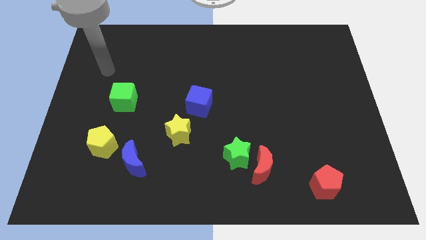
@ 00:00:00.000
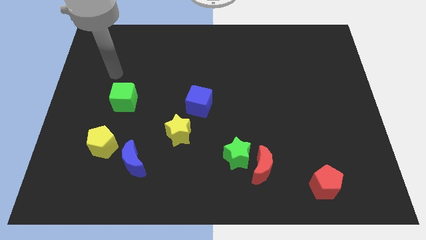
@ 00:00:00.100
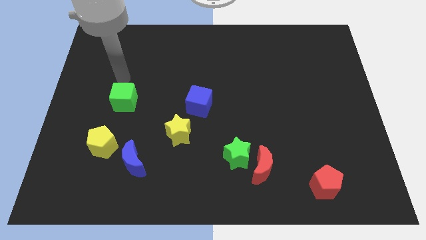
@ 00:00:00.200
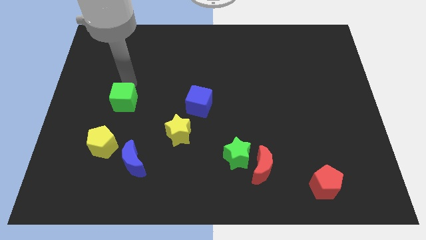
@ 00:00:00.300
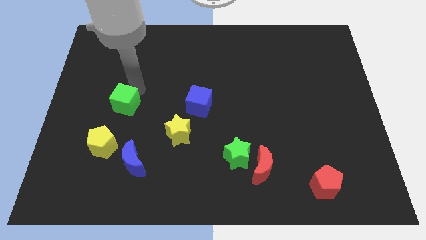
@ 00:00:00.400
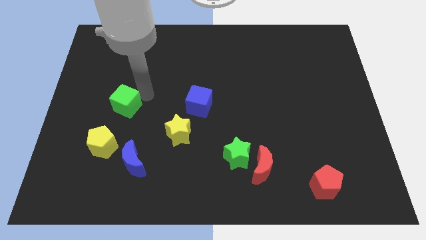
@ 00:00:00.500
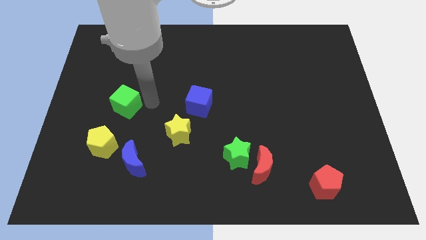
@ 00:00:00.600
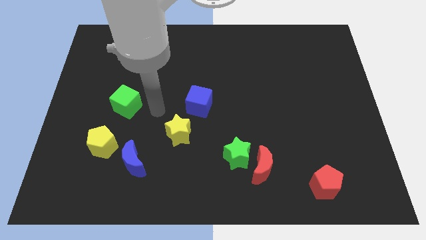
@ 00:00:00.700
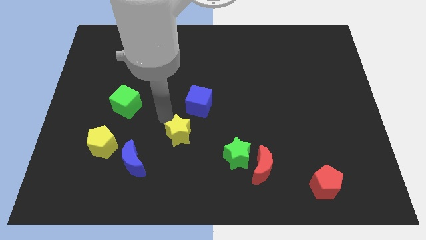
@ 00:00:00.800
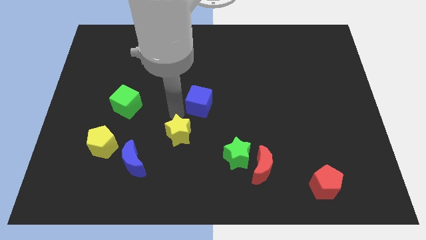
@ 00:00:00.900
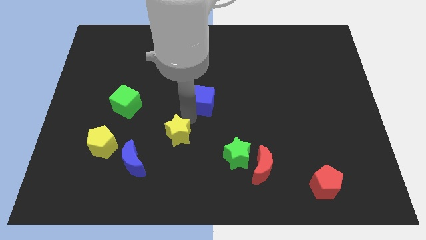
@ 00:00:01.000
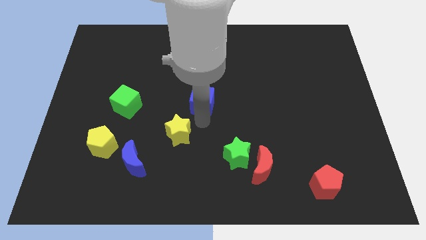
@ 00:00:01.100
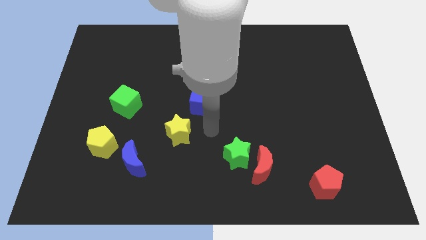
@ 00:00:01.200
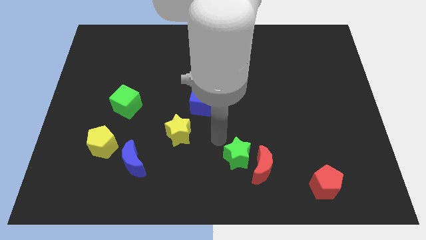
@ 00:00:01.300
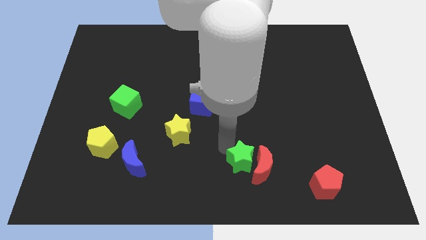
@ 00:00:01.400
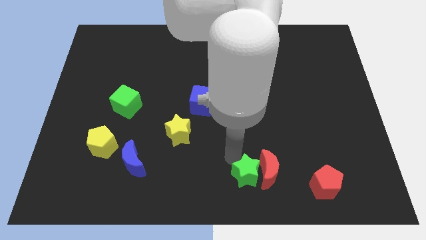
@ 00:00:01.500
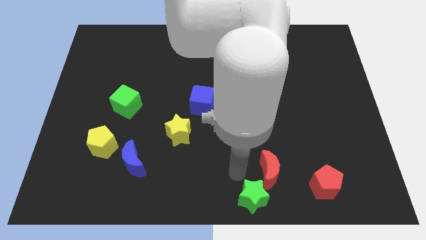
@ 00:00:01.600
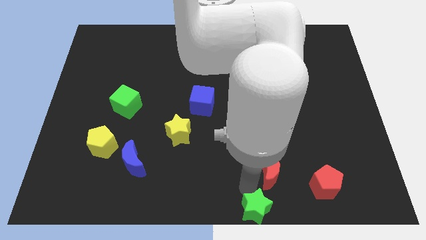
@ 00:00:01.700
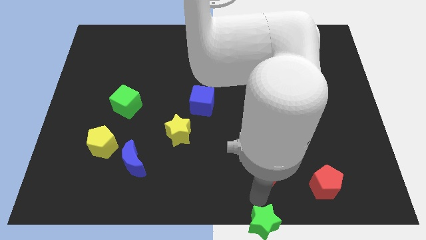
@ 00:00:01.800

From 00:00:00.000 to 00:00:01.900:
move the red moon away from the green star

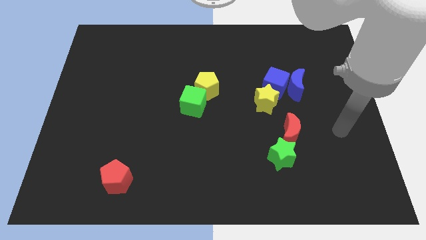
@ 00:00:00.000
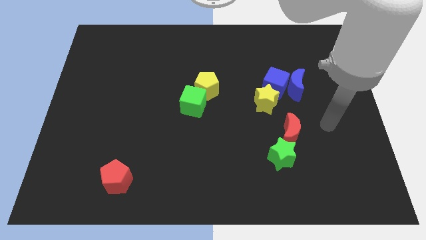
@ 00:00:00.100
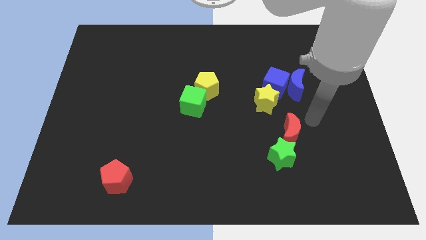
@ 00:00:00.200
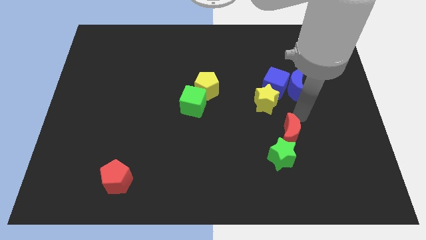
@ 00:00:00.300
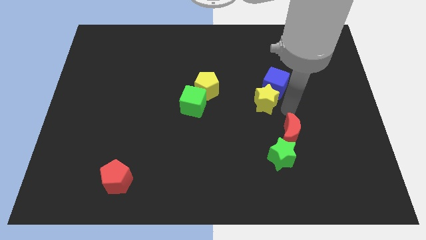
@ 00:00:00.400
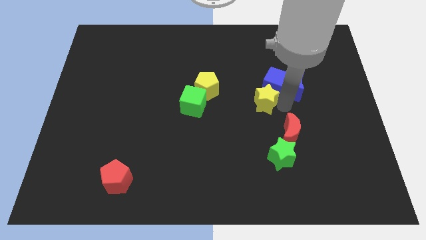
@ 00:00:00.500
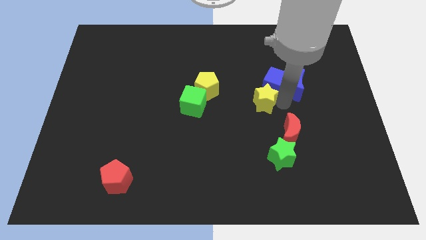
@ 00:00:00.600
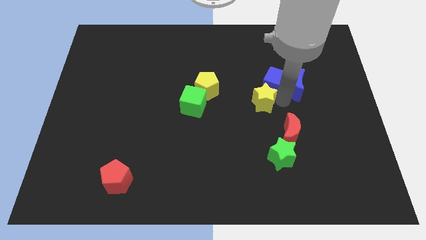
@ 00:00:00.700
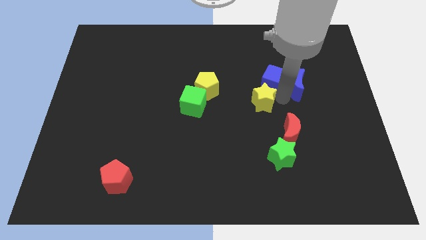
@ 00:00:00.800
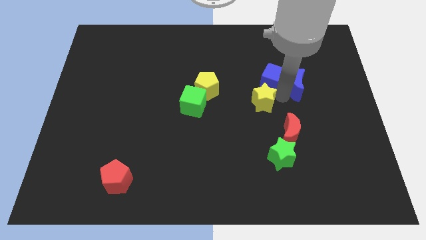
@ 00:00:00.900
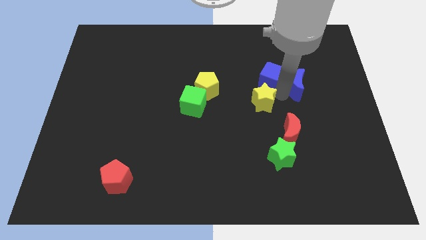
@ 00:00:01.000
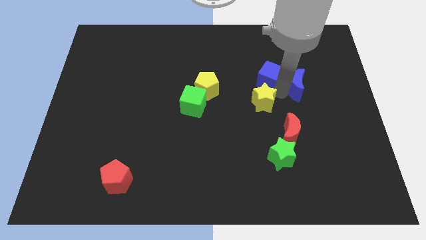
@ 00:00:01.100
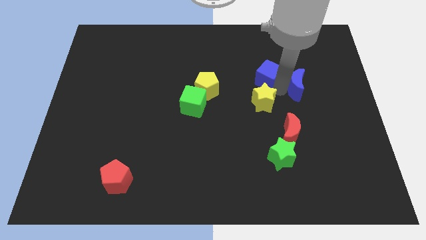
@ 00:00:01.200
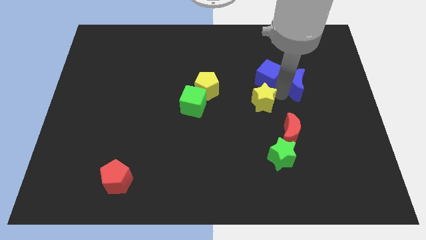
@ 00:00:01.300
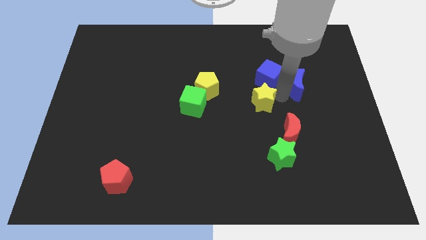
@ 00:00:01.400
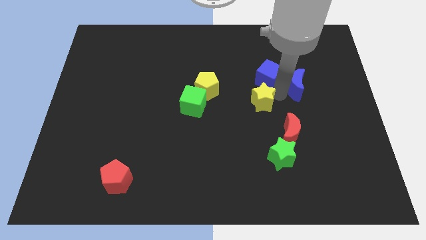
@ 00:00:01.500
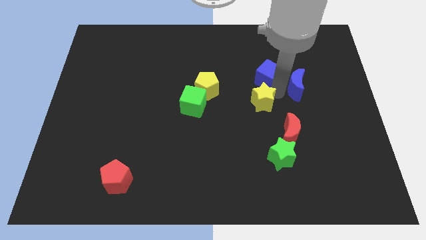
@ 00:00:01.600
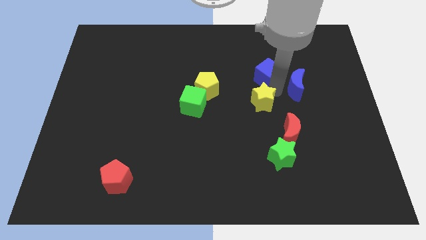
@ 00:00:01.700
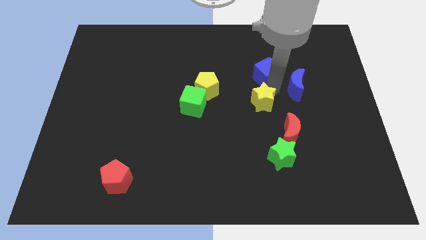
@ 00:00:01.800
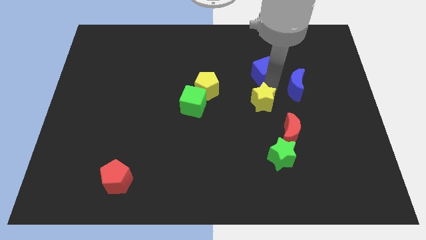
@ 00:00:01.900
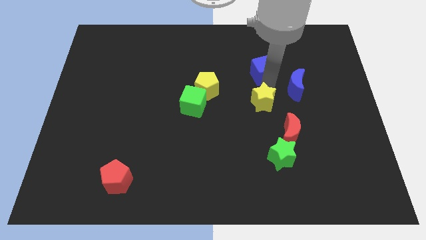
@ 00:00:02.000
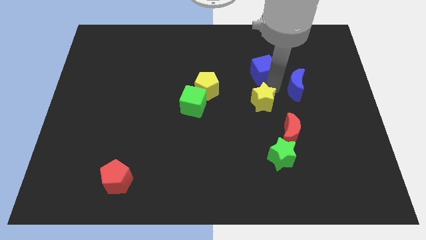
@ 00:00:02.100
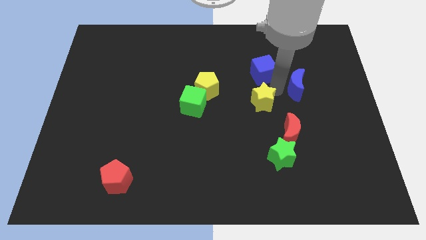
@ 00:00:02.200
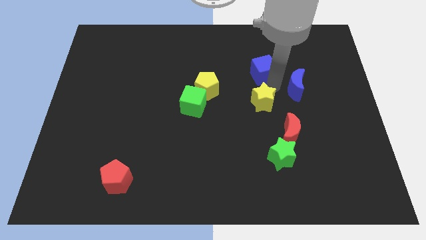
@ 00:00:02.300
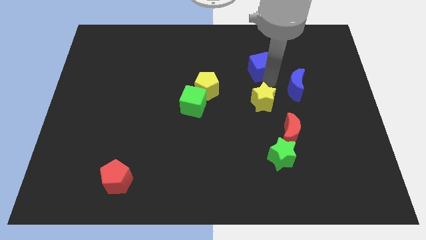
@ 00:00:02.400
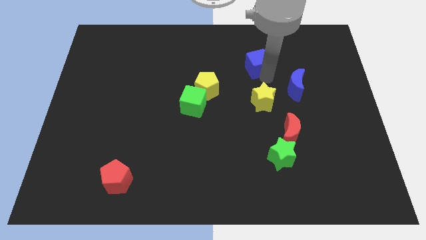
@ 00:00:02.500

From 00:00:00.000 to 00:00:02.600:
move the blue cube away from the blue moon and yellow star

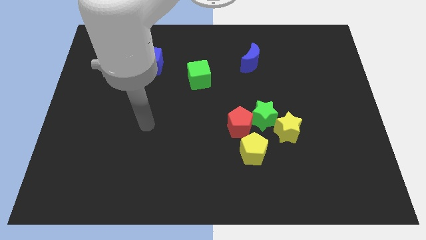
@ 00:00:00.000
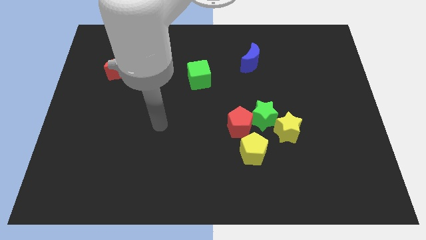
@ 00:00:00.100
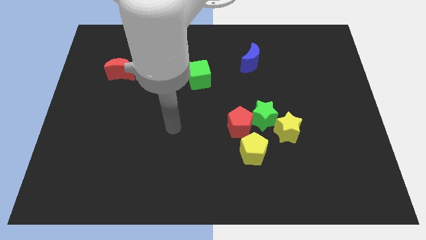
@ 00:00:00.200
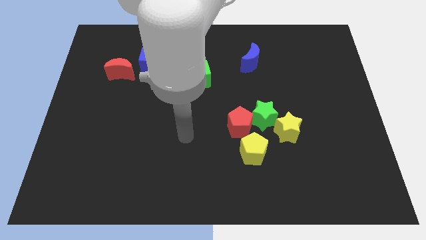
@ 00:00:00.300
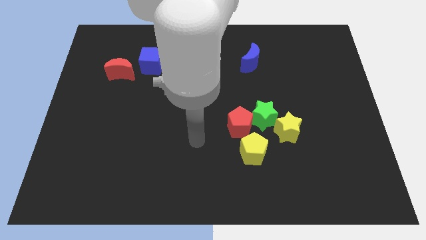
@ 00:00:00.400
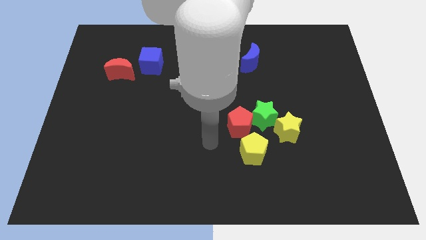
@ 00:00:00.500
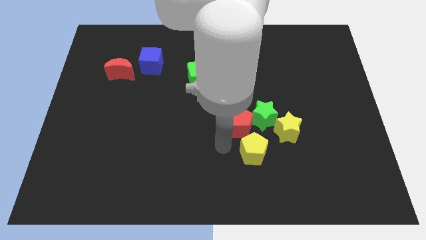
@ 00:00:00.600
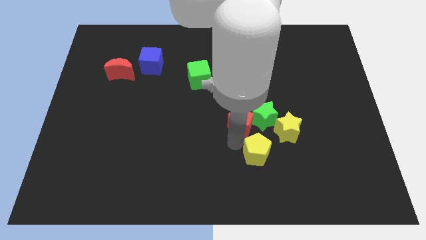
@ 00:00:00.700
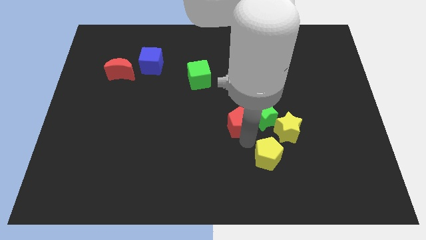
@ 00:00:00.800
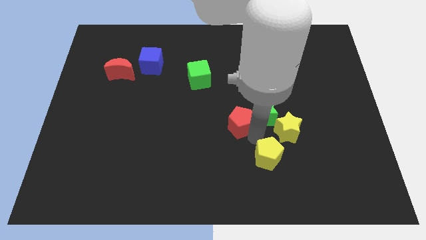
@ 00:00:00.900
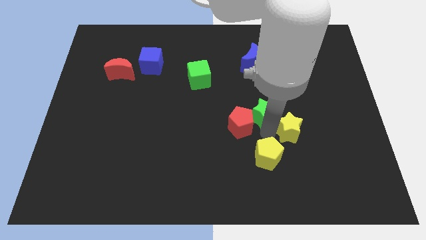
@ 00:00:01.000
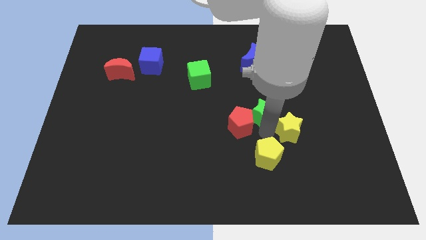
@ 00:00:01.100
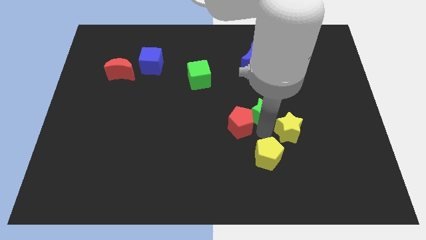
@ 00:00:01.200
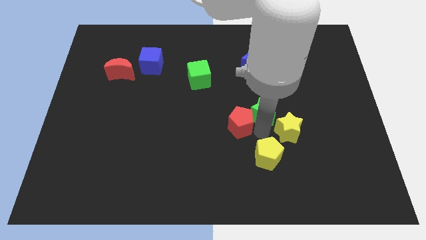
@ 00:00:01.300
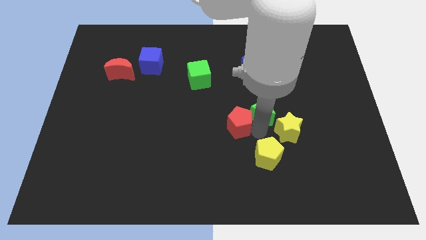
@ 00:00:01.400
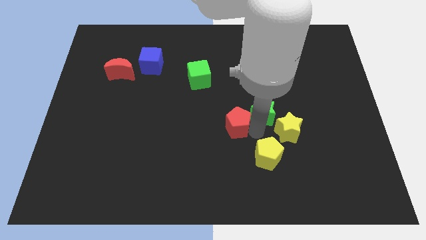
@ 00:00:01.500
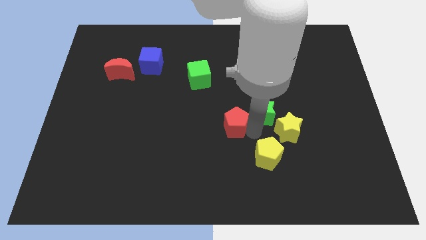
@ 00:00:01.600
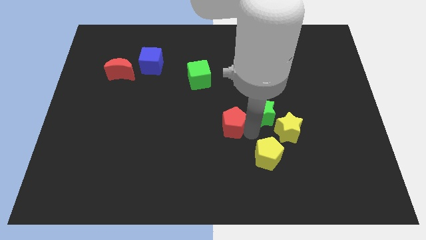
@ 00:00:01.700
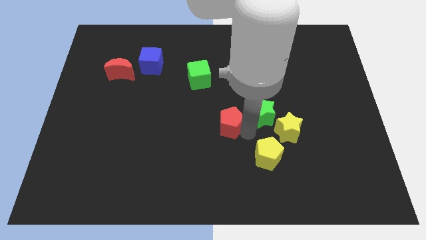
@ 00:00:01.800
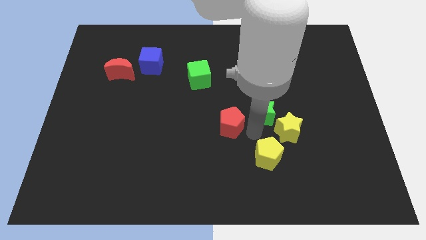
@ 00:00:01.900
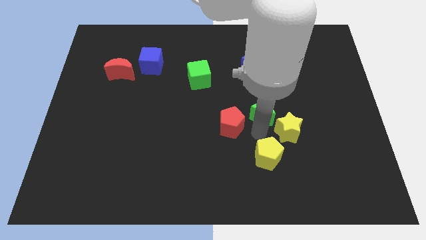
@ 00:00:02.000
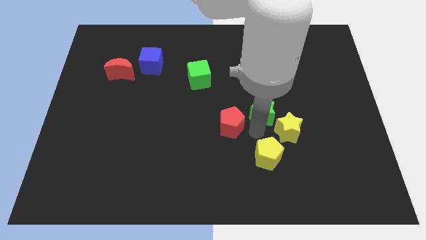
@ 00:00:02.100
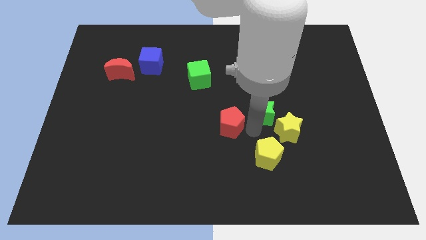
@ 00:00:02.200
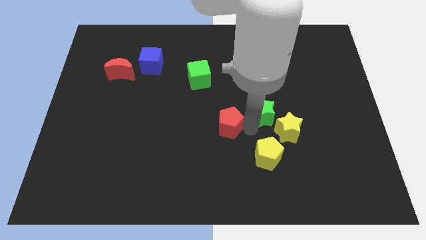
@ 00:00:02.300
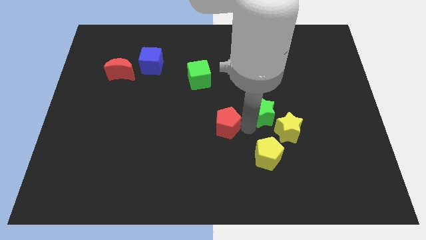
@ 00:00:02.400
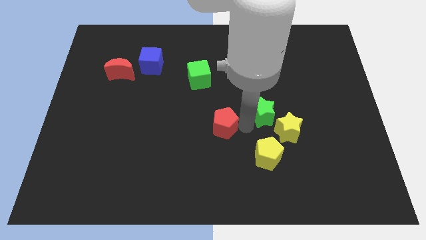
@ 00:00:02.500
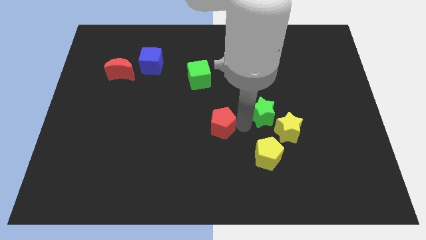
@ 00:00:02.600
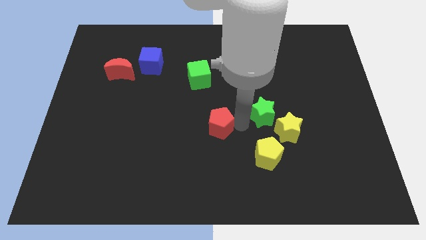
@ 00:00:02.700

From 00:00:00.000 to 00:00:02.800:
separate the red pentagon from the green star and yellow pentagon

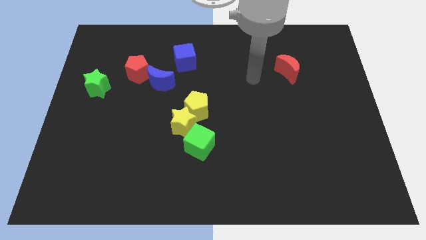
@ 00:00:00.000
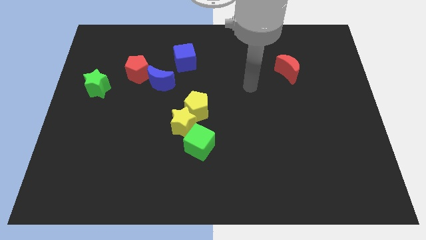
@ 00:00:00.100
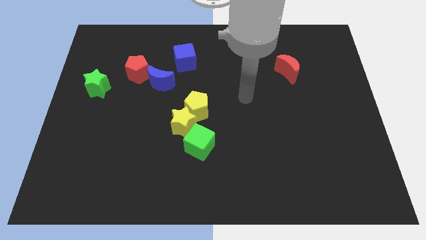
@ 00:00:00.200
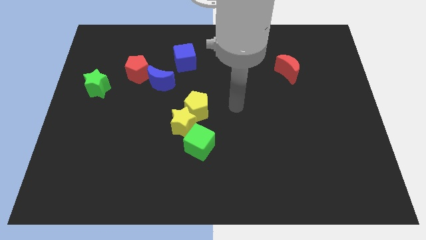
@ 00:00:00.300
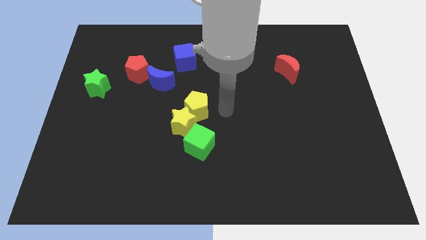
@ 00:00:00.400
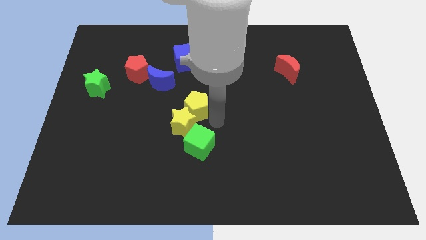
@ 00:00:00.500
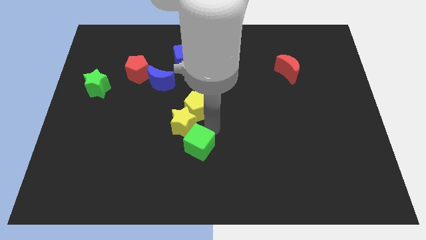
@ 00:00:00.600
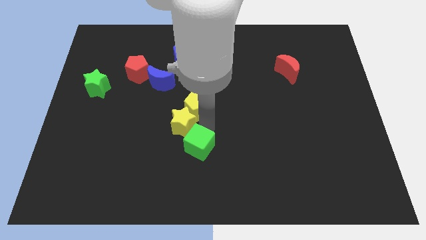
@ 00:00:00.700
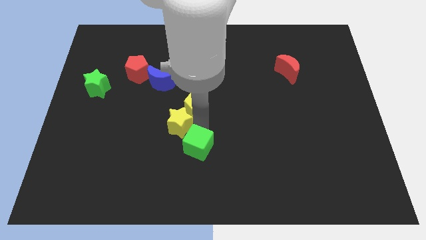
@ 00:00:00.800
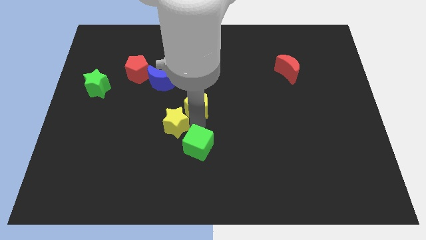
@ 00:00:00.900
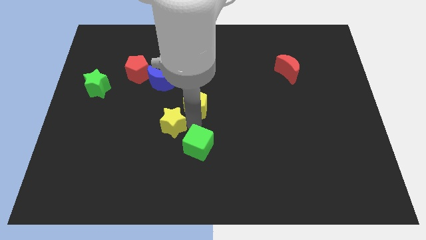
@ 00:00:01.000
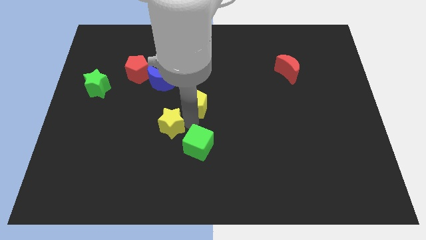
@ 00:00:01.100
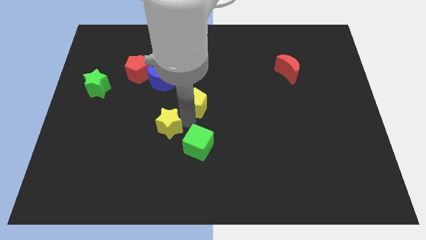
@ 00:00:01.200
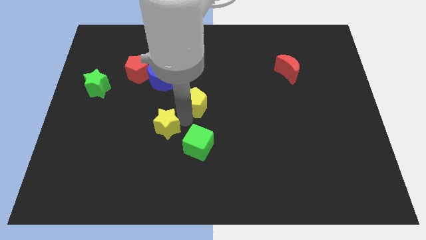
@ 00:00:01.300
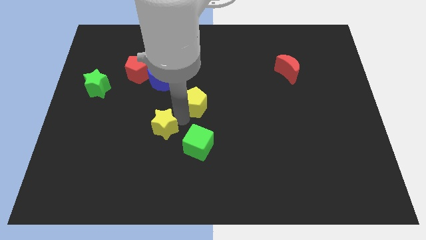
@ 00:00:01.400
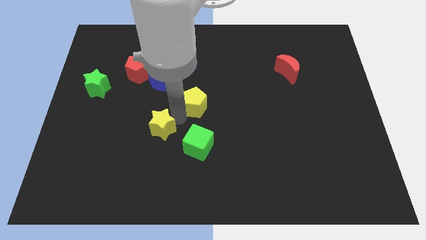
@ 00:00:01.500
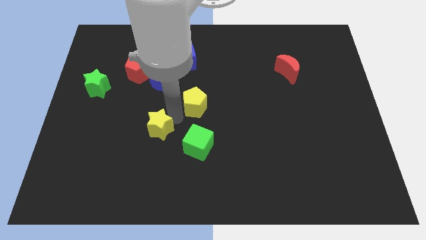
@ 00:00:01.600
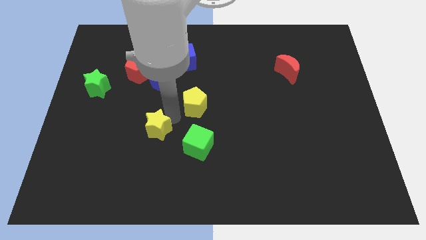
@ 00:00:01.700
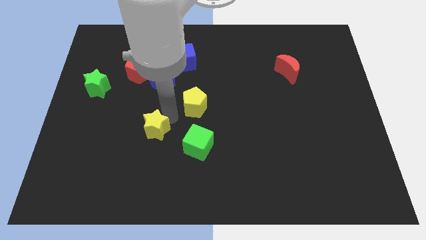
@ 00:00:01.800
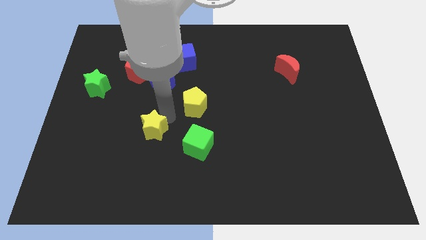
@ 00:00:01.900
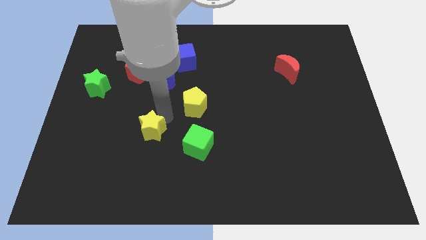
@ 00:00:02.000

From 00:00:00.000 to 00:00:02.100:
move the yellow star away from the yellow pentagon and green cube
